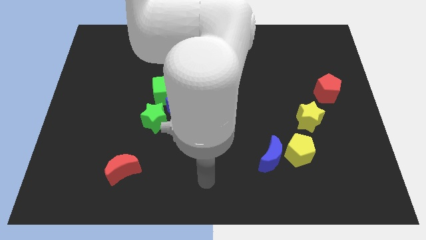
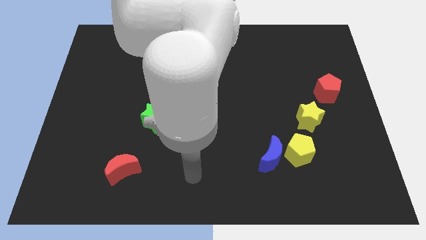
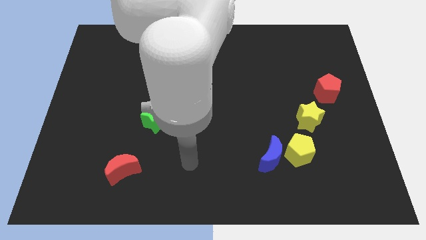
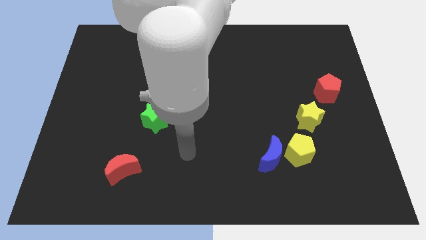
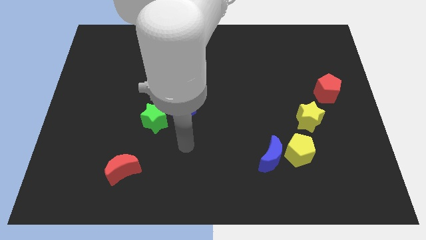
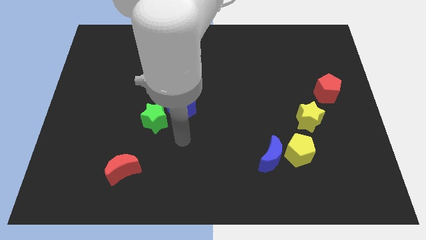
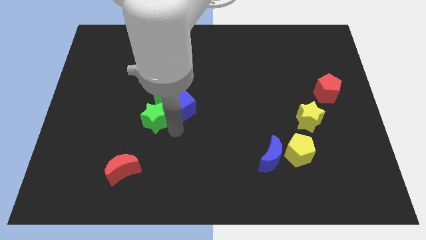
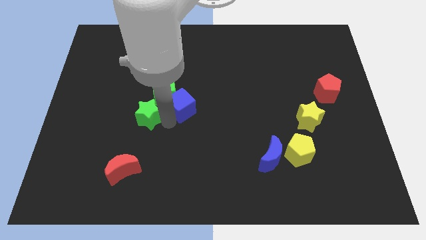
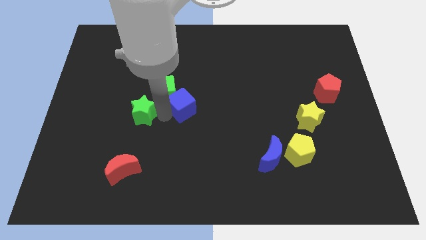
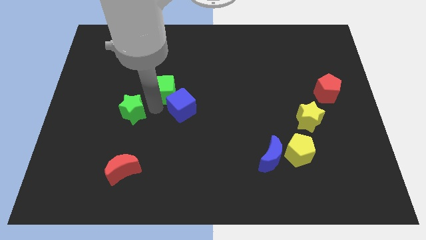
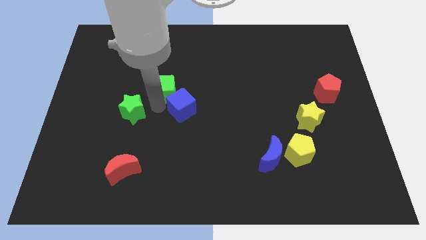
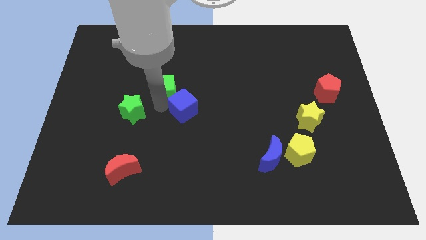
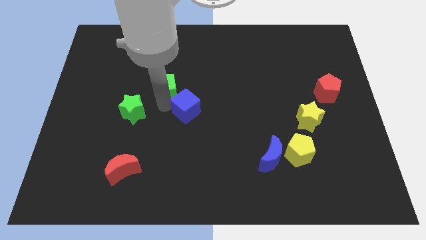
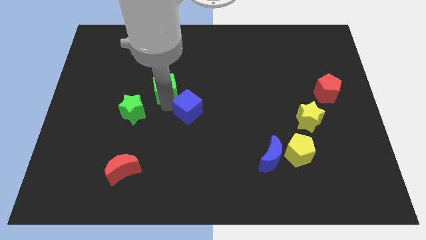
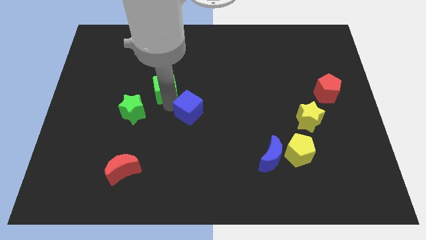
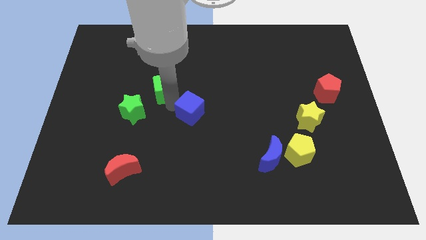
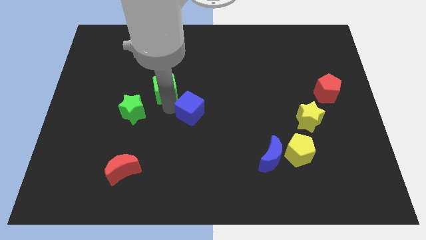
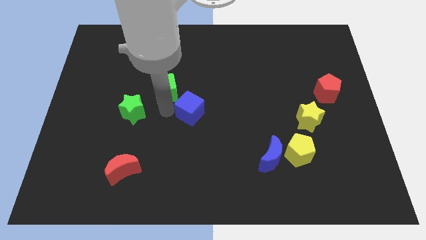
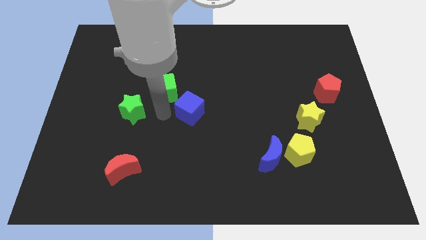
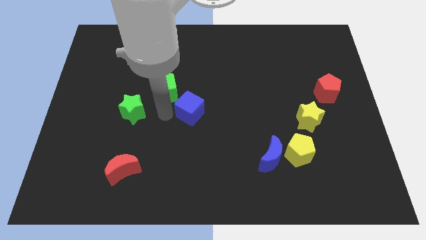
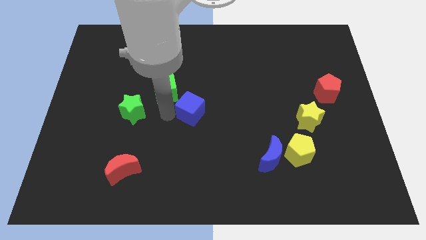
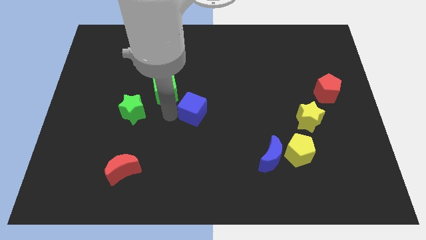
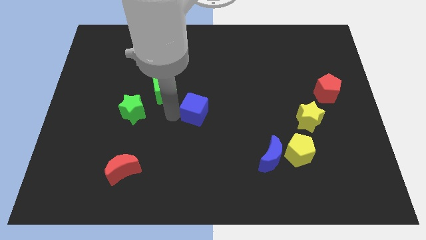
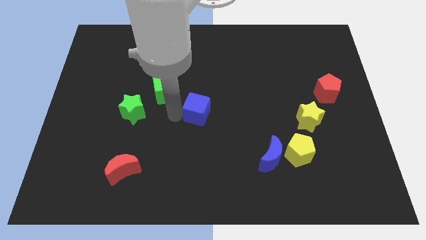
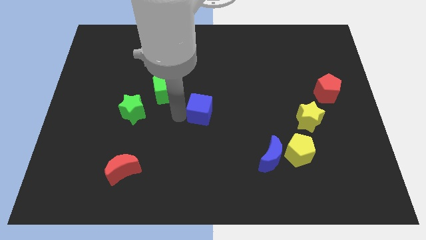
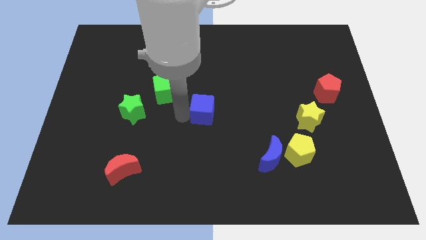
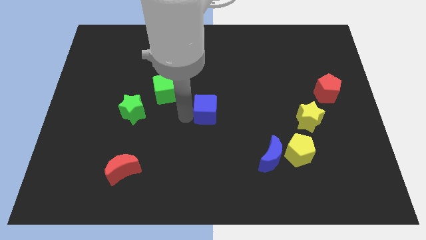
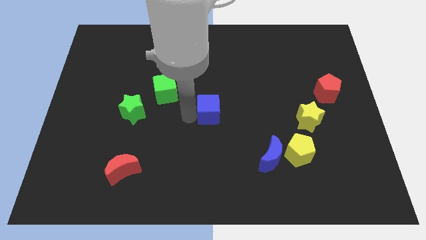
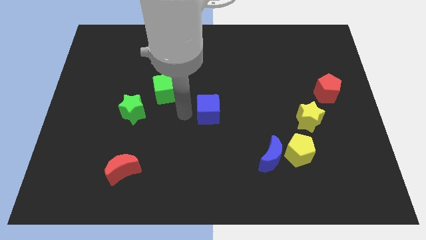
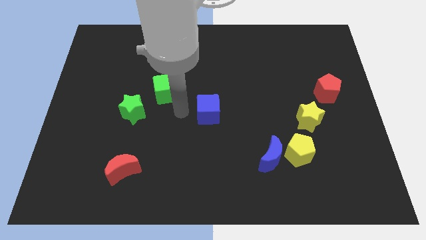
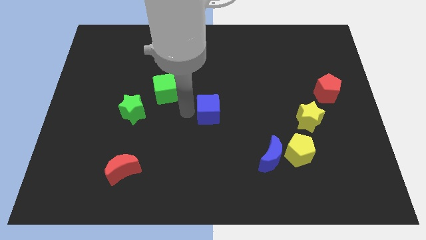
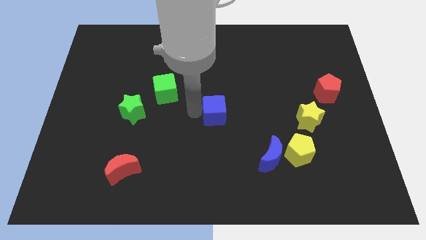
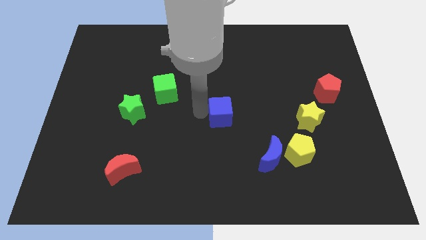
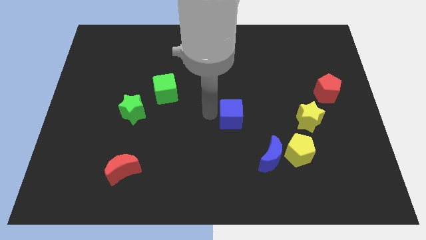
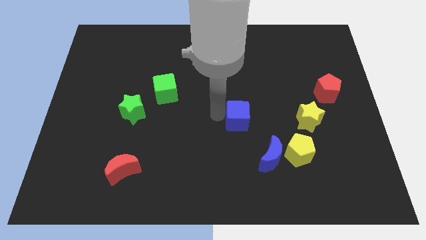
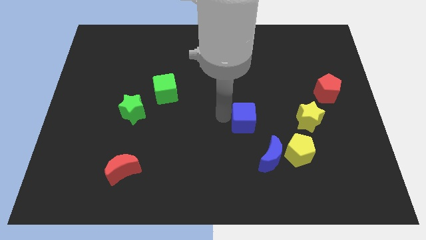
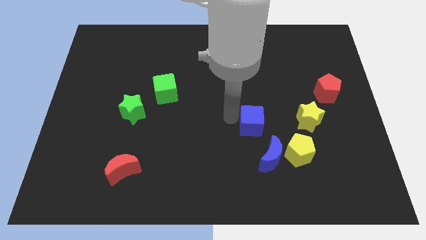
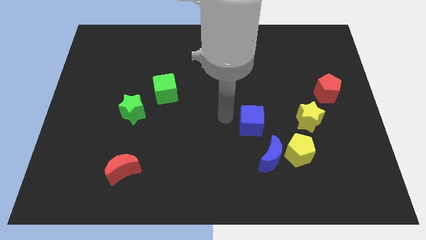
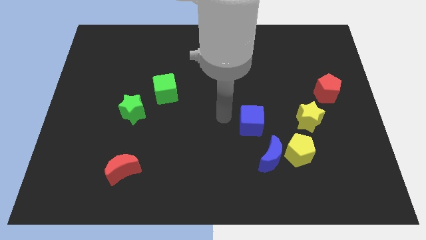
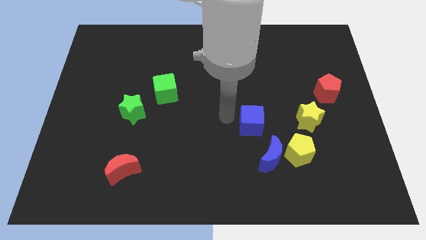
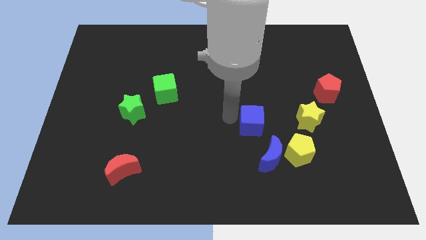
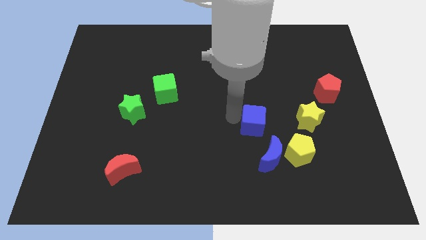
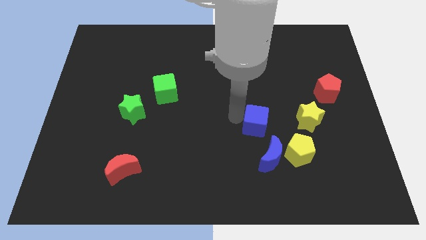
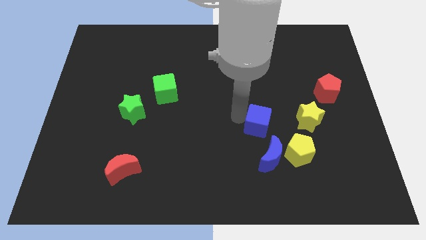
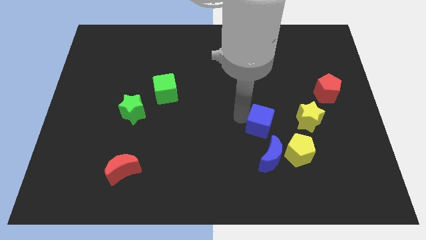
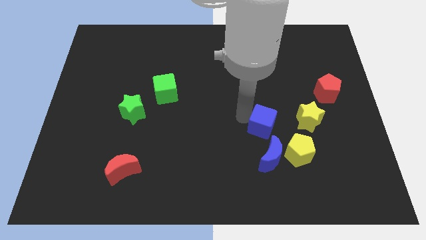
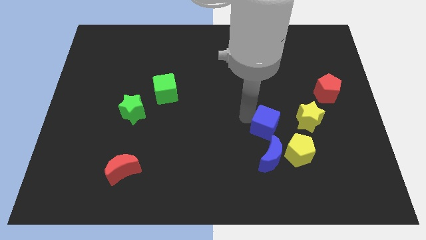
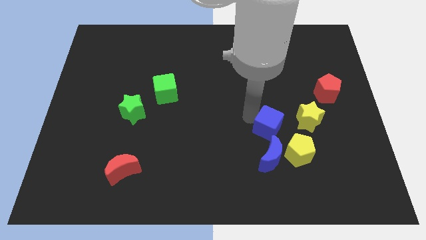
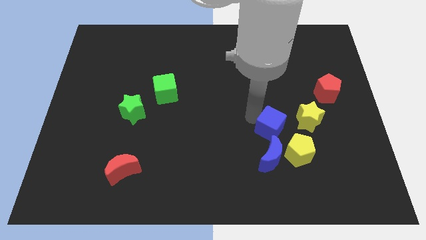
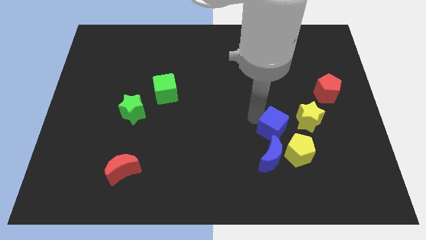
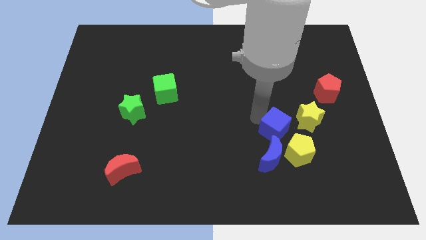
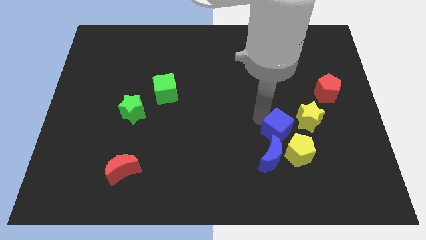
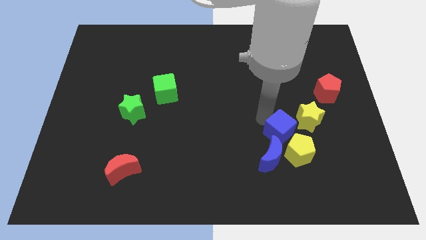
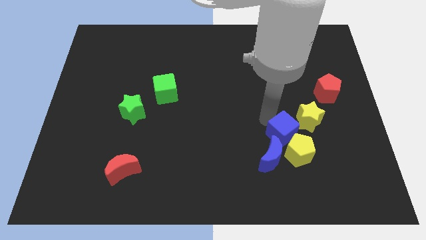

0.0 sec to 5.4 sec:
move the blue cube next to the yellow pentagon
